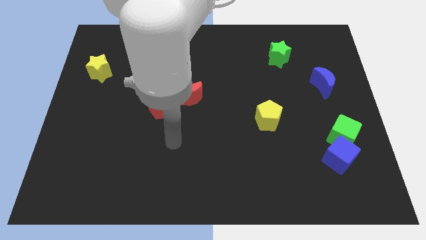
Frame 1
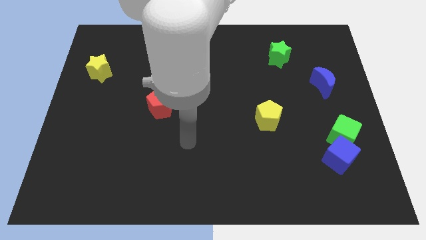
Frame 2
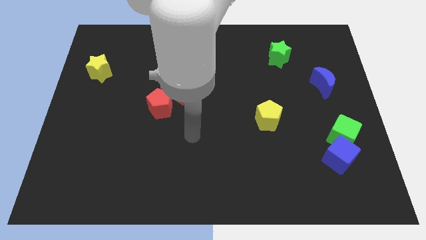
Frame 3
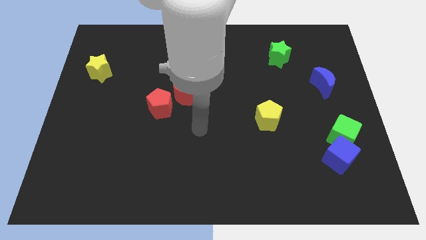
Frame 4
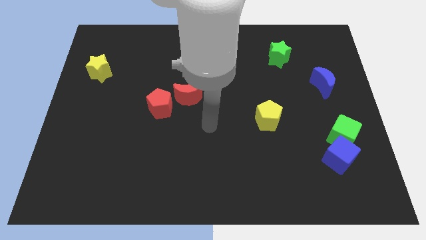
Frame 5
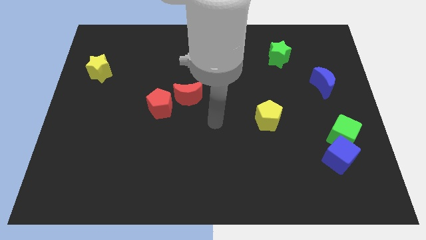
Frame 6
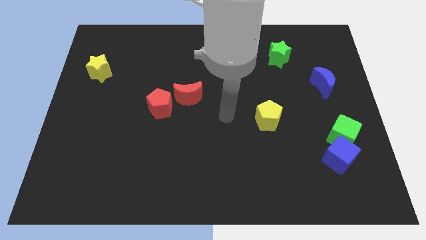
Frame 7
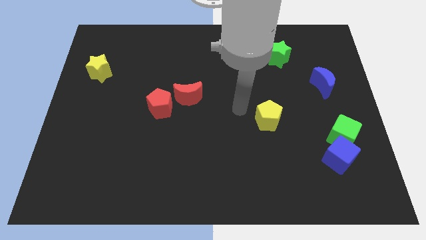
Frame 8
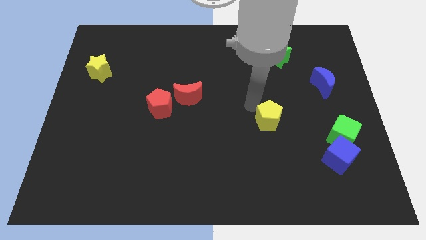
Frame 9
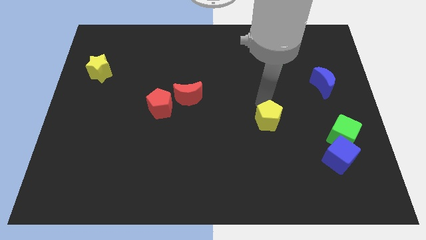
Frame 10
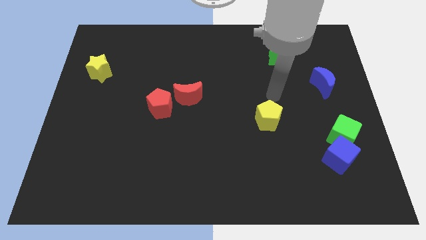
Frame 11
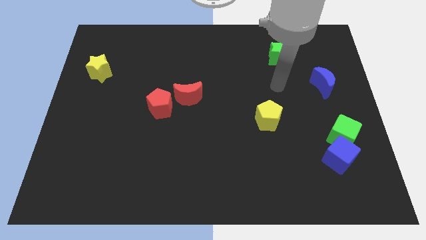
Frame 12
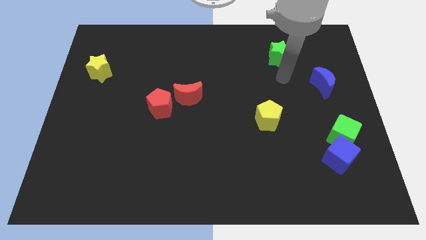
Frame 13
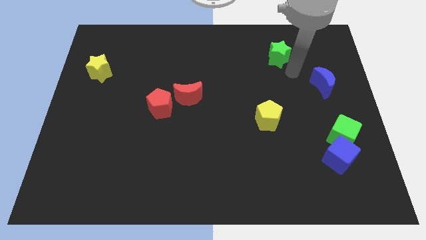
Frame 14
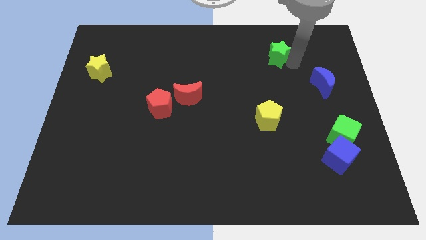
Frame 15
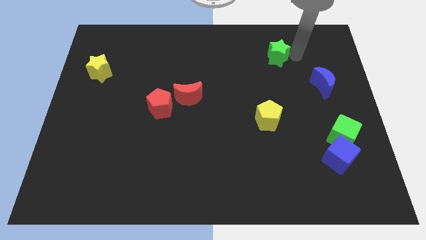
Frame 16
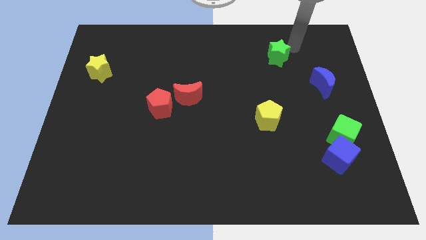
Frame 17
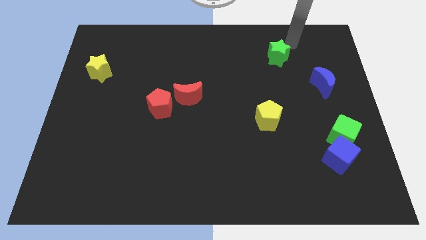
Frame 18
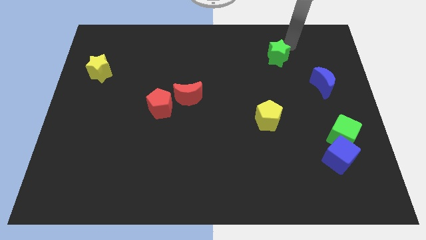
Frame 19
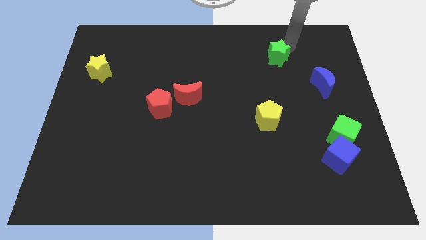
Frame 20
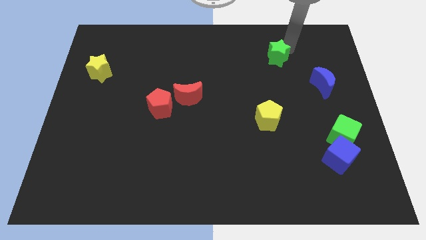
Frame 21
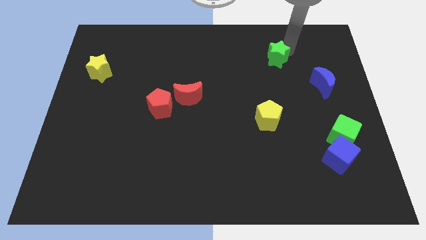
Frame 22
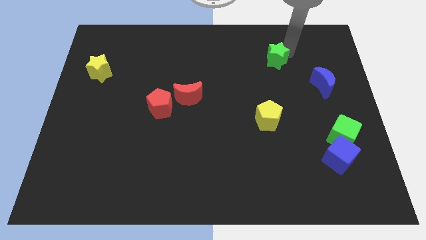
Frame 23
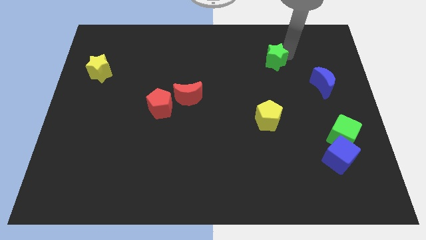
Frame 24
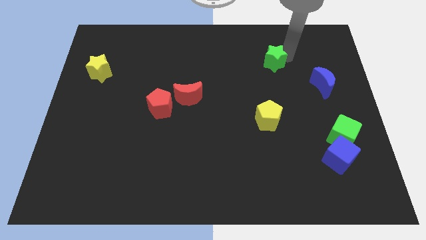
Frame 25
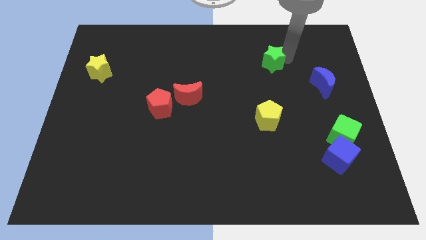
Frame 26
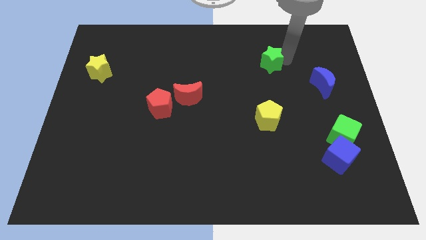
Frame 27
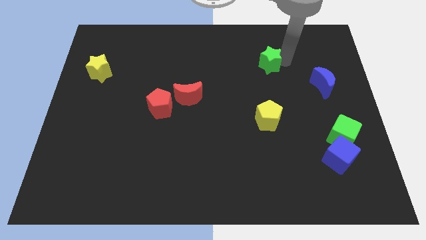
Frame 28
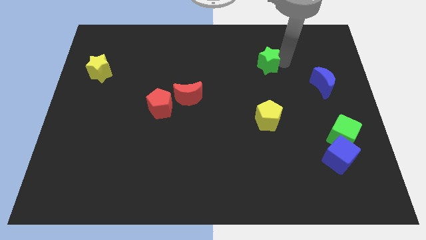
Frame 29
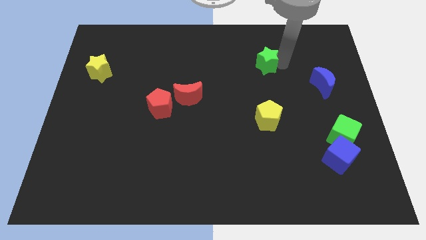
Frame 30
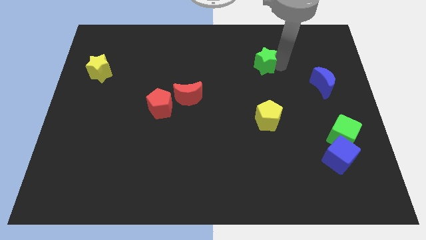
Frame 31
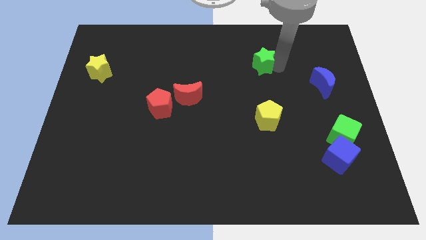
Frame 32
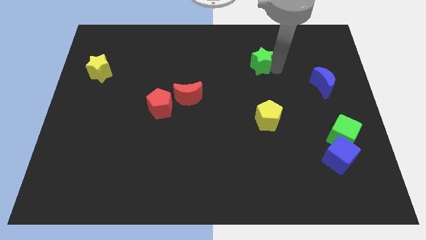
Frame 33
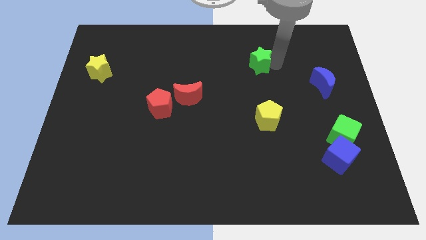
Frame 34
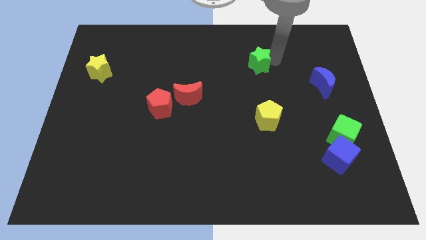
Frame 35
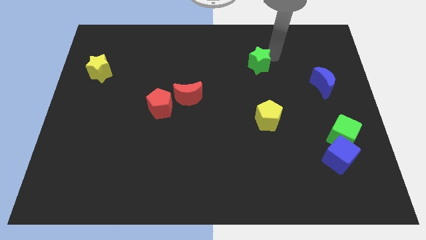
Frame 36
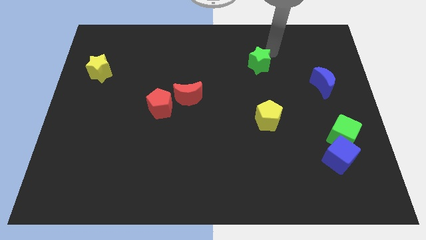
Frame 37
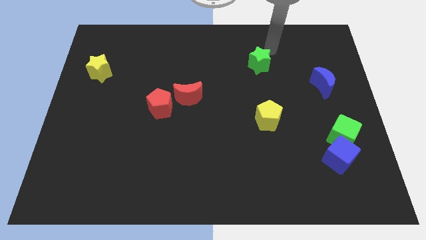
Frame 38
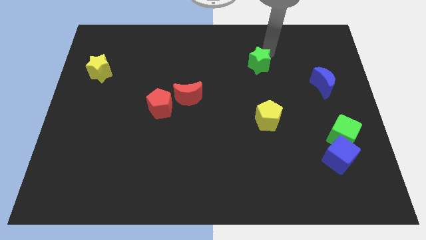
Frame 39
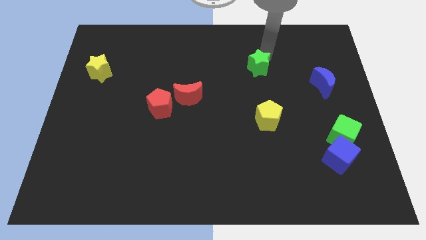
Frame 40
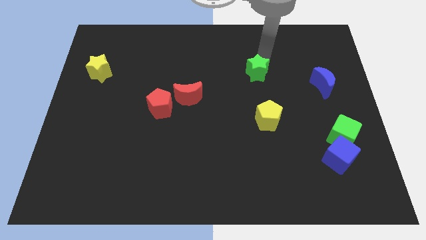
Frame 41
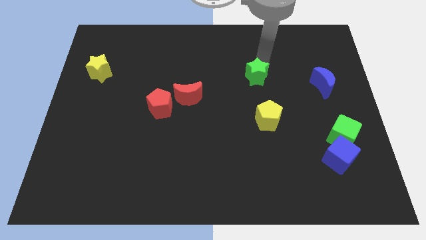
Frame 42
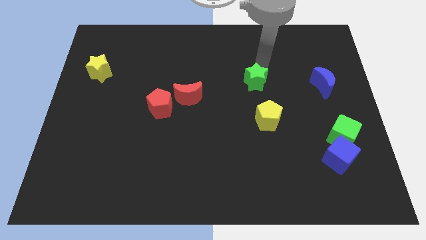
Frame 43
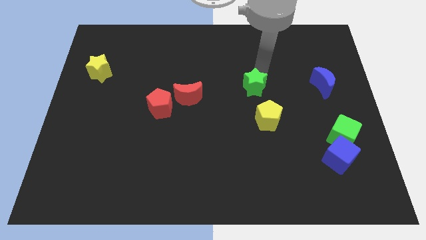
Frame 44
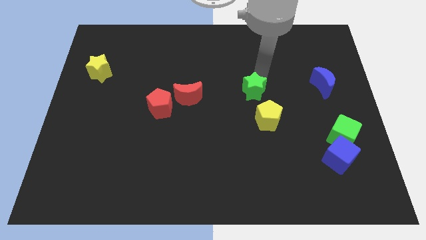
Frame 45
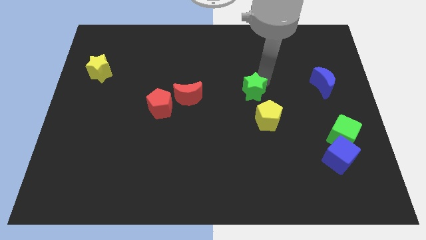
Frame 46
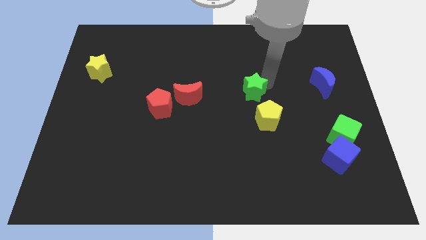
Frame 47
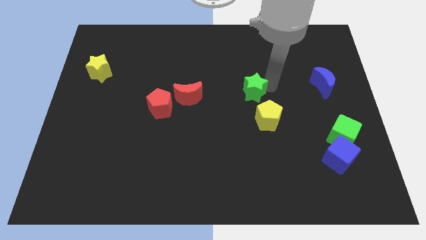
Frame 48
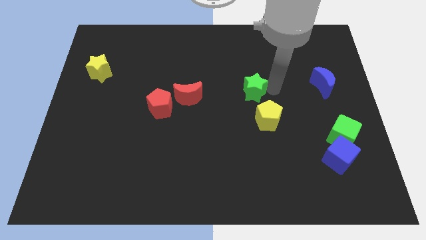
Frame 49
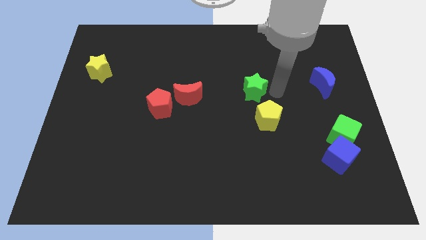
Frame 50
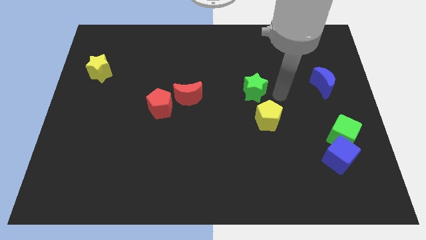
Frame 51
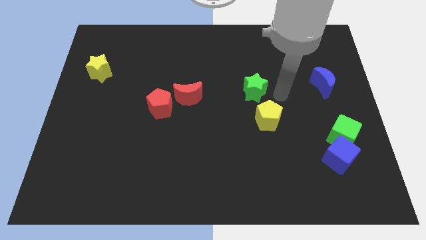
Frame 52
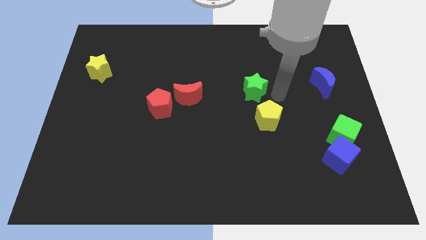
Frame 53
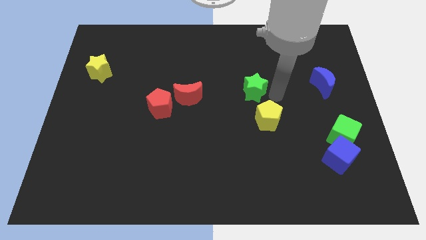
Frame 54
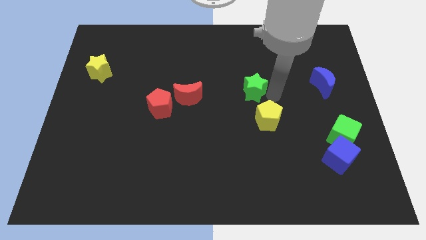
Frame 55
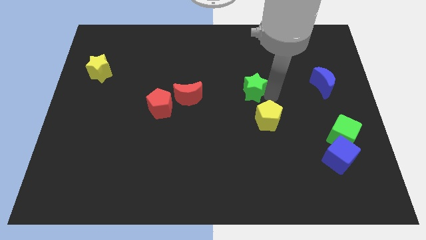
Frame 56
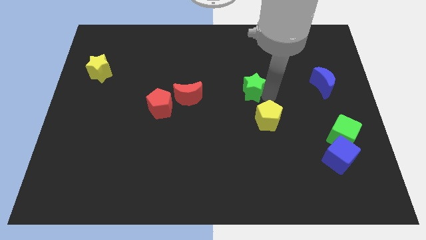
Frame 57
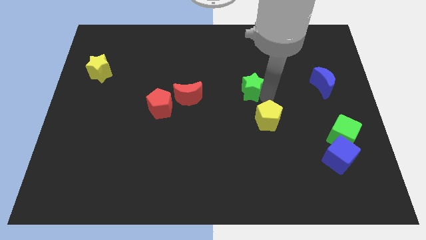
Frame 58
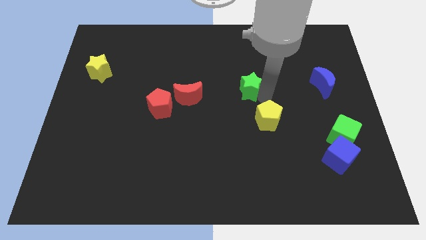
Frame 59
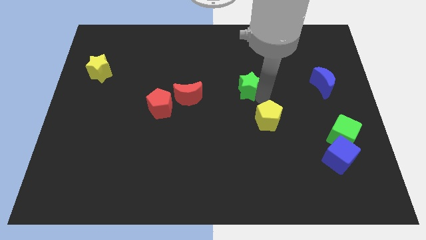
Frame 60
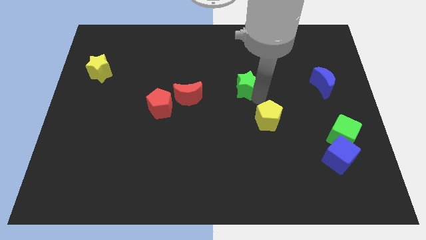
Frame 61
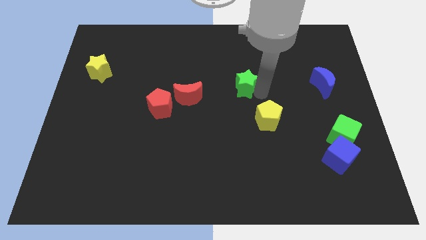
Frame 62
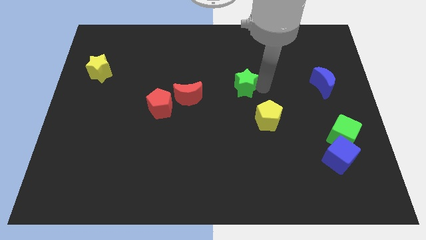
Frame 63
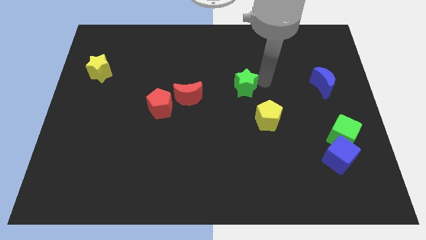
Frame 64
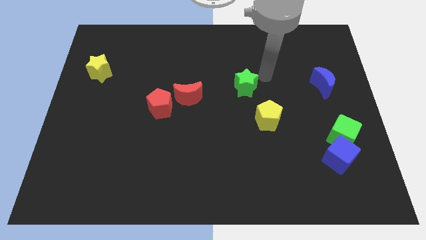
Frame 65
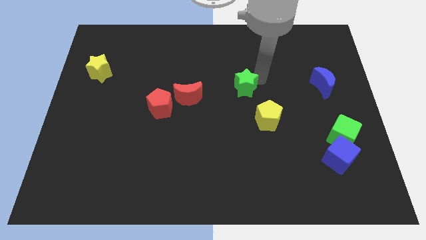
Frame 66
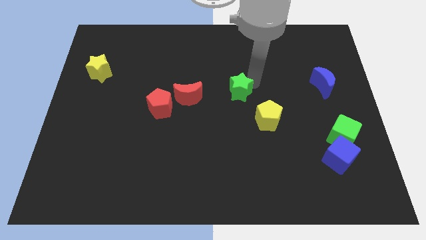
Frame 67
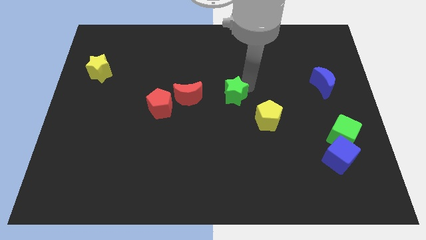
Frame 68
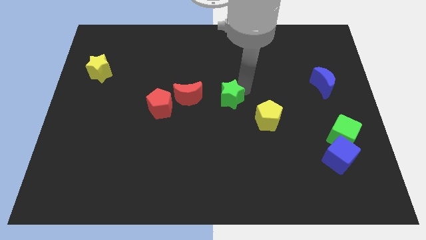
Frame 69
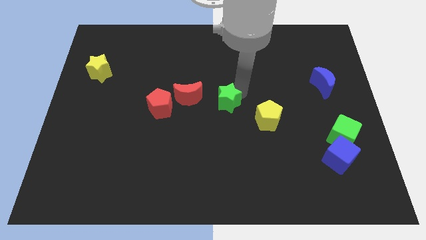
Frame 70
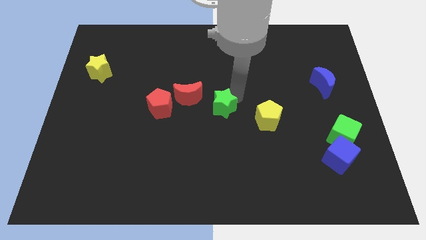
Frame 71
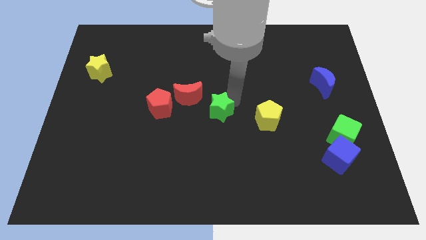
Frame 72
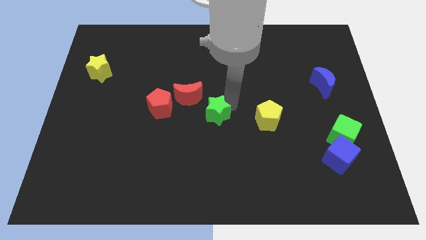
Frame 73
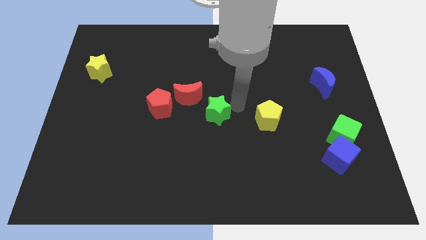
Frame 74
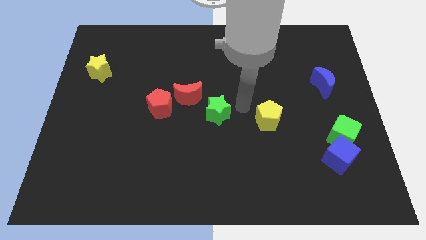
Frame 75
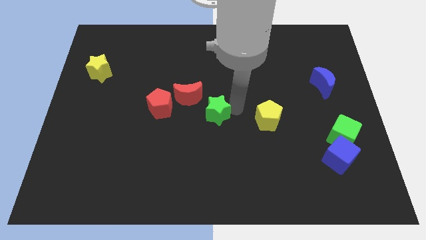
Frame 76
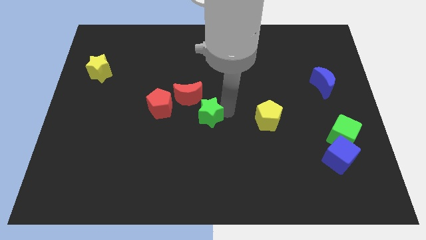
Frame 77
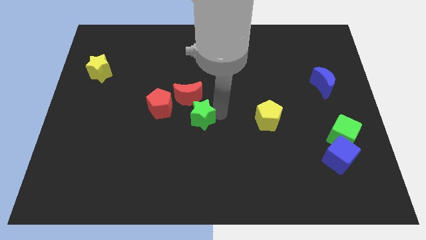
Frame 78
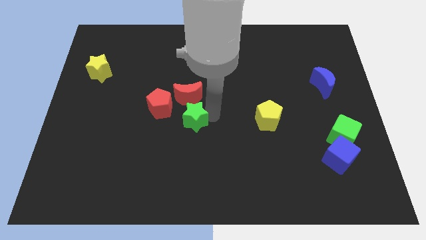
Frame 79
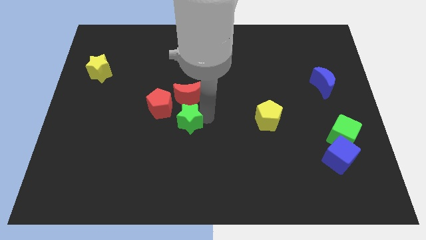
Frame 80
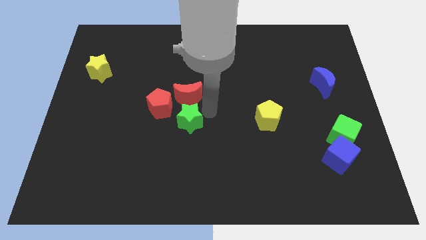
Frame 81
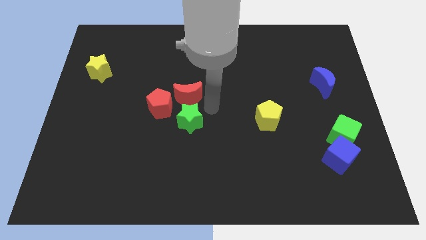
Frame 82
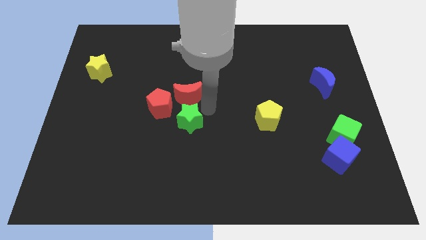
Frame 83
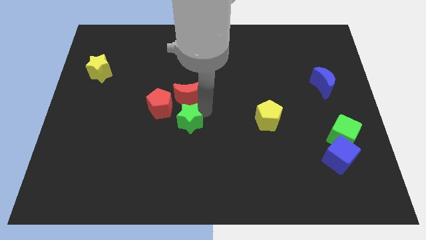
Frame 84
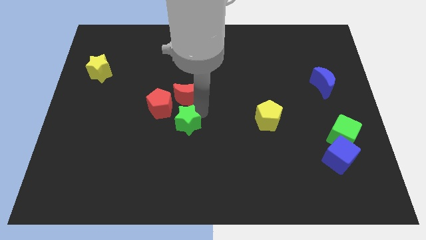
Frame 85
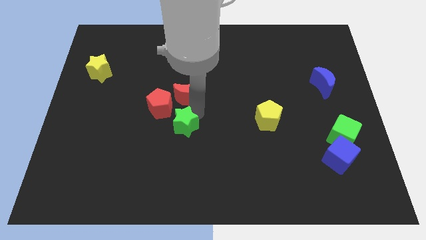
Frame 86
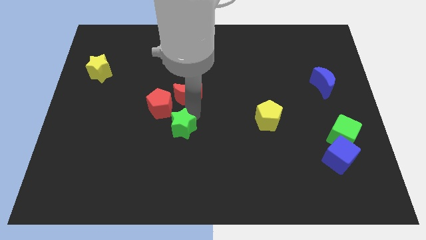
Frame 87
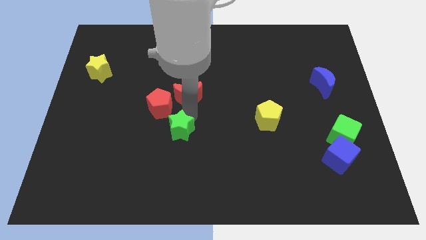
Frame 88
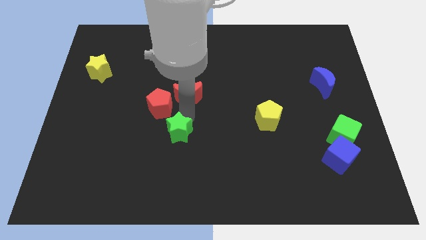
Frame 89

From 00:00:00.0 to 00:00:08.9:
put the green star below the red pentagon
